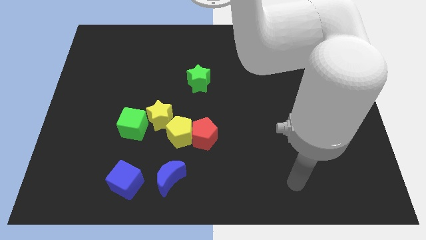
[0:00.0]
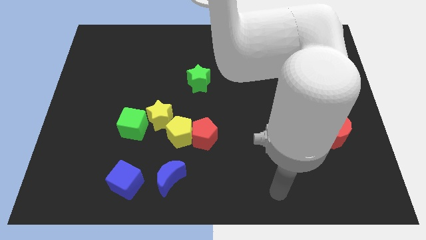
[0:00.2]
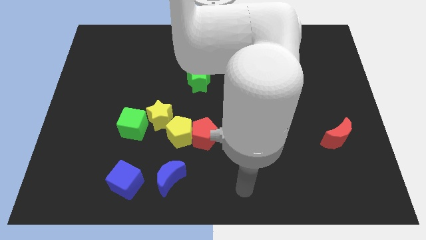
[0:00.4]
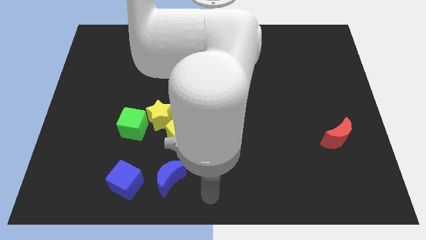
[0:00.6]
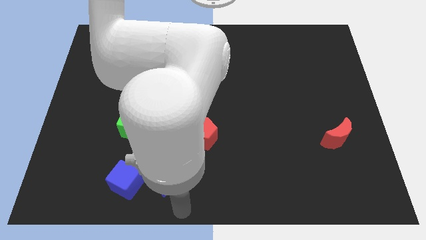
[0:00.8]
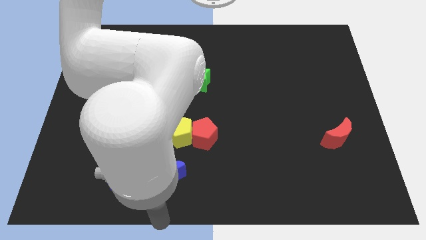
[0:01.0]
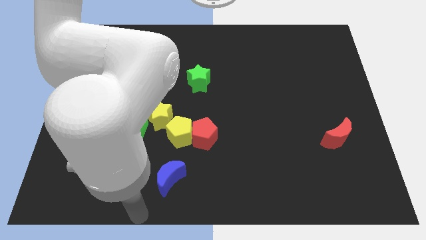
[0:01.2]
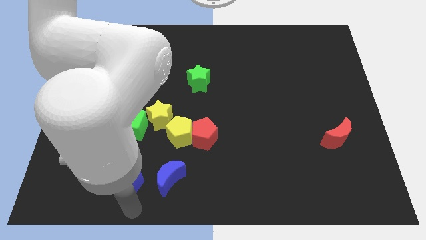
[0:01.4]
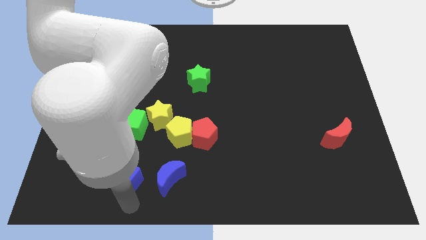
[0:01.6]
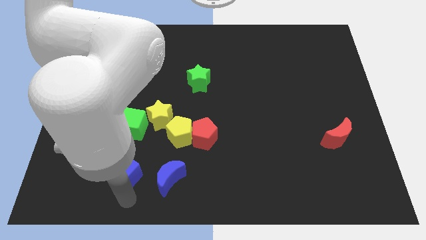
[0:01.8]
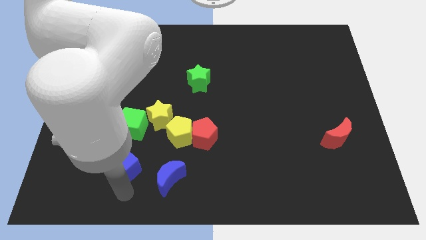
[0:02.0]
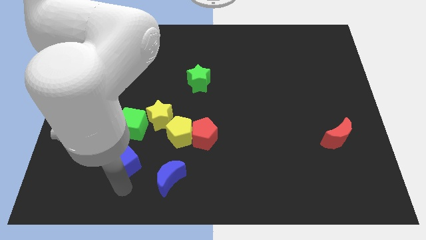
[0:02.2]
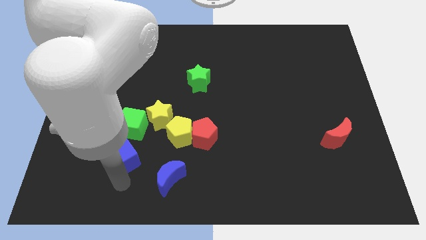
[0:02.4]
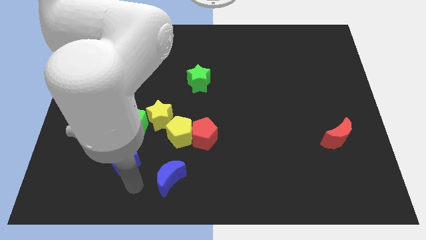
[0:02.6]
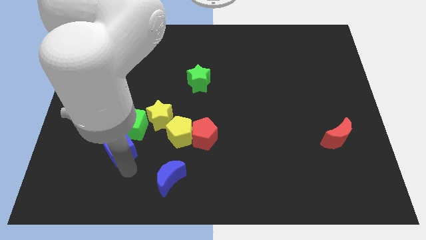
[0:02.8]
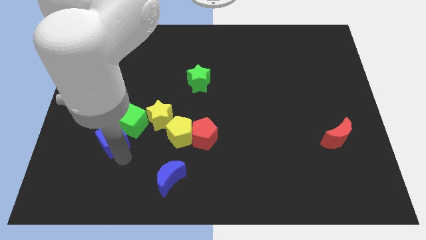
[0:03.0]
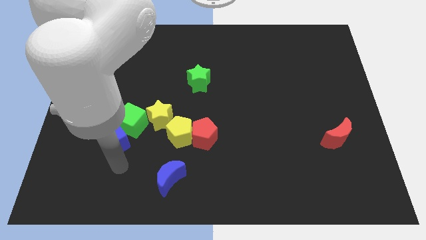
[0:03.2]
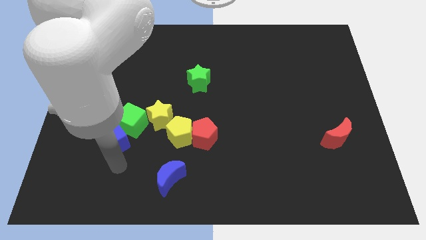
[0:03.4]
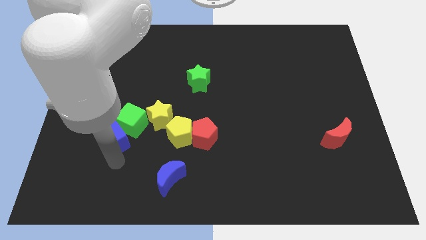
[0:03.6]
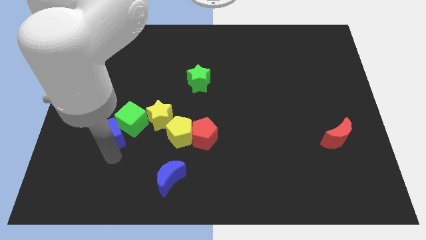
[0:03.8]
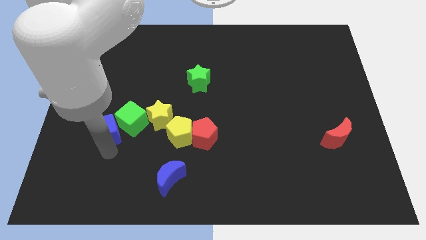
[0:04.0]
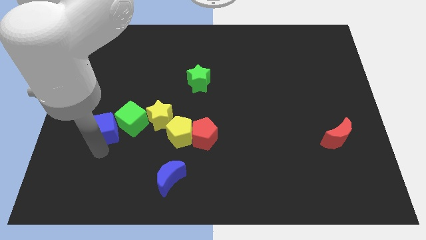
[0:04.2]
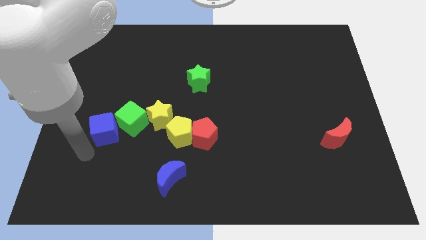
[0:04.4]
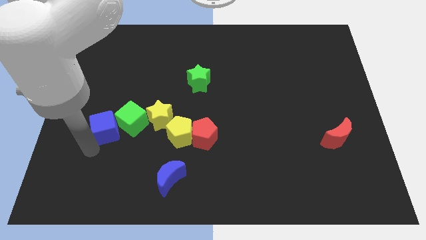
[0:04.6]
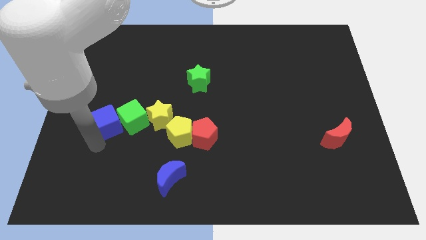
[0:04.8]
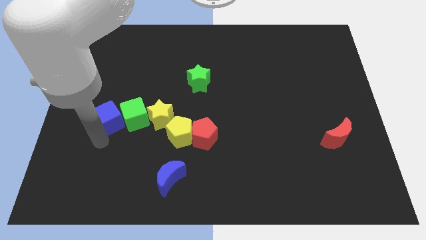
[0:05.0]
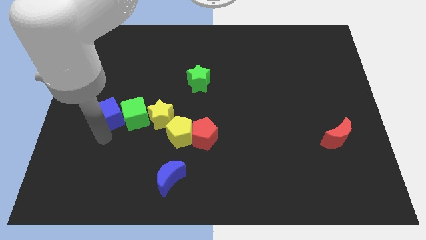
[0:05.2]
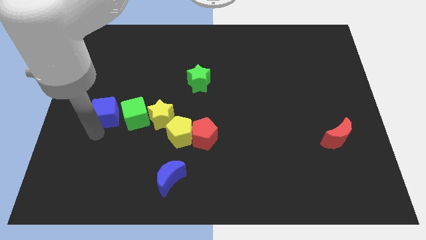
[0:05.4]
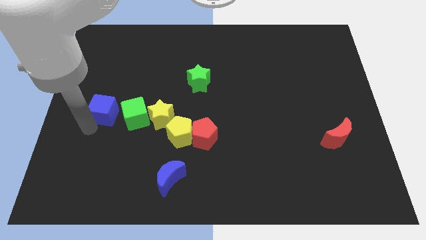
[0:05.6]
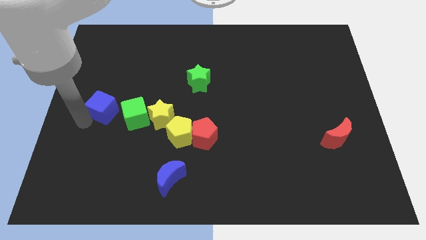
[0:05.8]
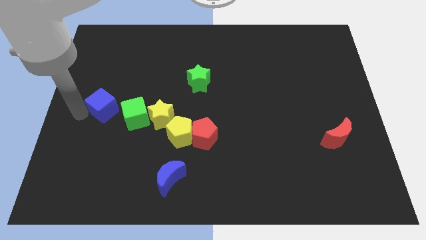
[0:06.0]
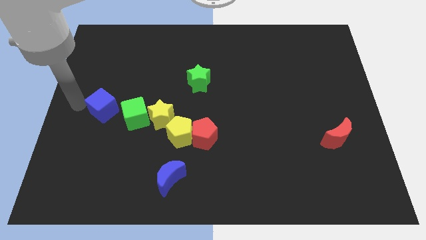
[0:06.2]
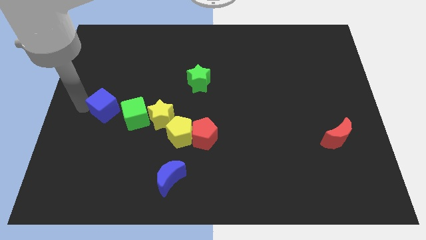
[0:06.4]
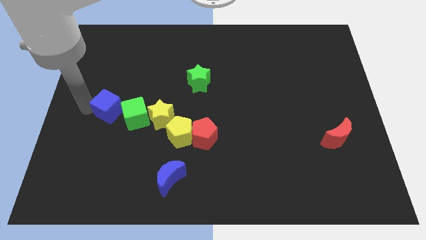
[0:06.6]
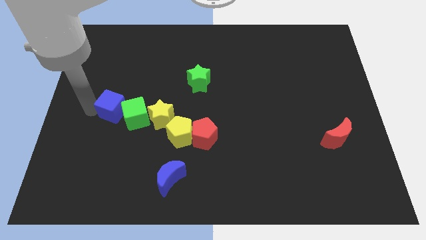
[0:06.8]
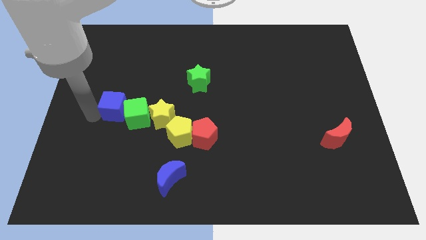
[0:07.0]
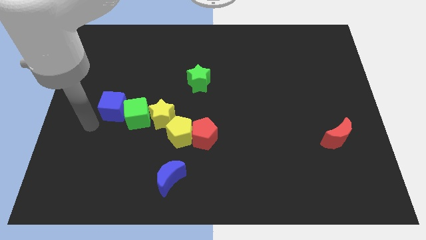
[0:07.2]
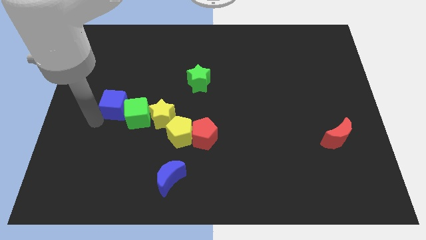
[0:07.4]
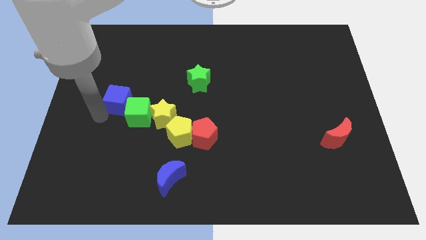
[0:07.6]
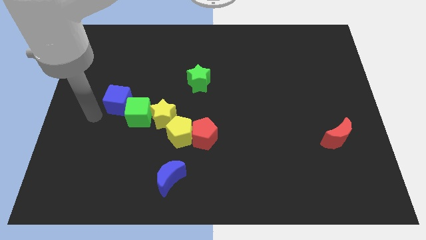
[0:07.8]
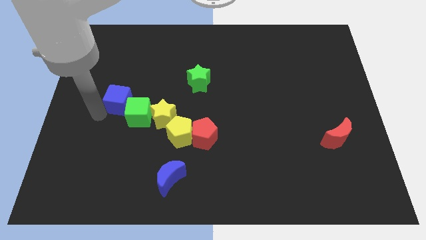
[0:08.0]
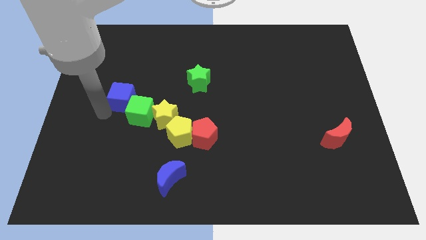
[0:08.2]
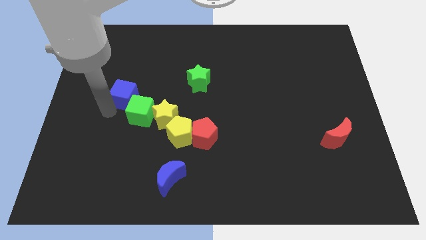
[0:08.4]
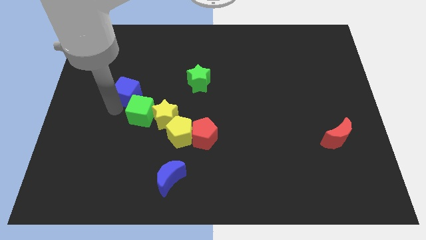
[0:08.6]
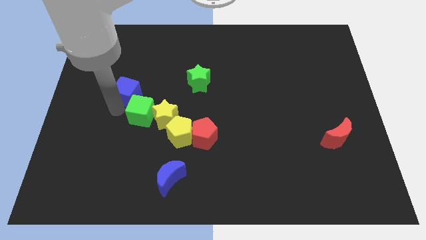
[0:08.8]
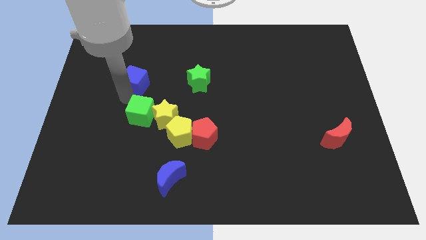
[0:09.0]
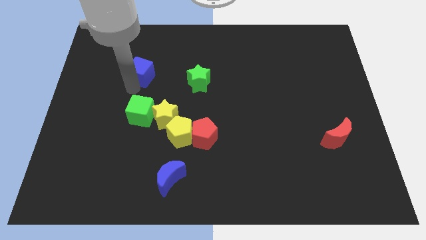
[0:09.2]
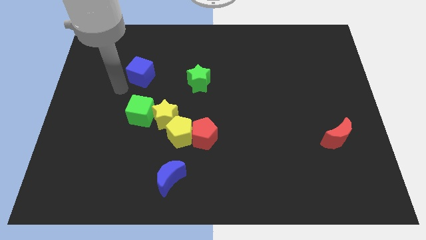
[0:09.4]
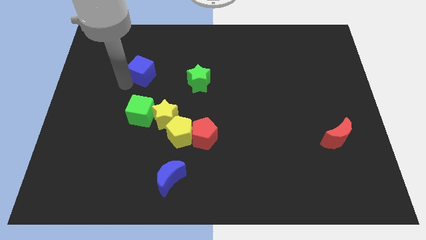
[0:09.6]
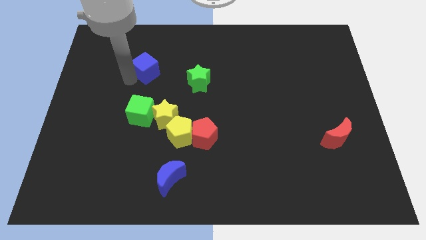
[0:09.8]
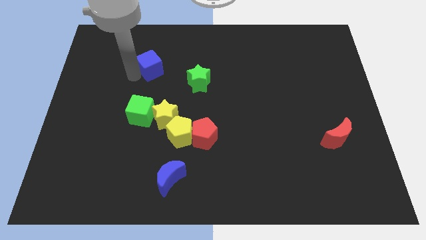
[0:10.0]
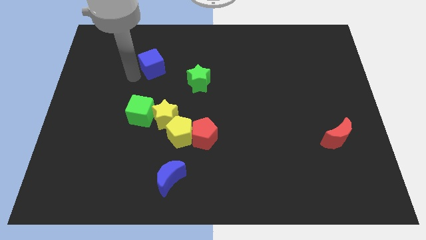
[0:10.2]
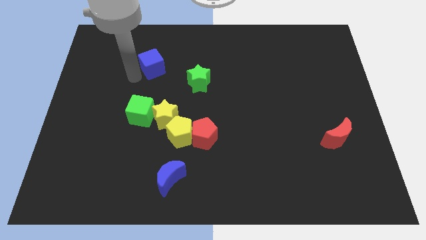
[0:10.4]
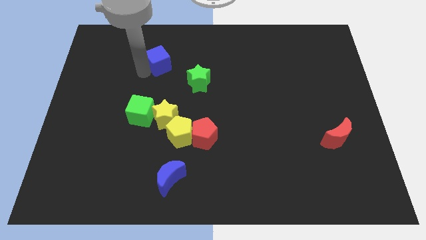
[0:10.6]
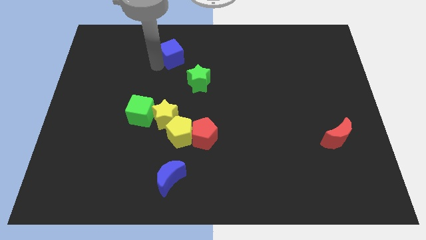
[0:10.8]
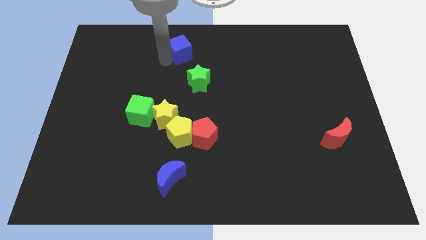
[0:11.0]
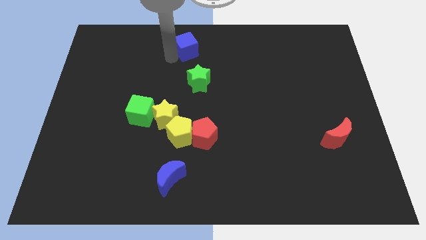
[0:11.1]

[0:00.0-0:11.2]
move the blue cube to the towards your base

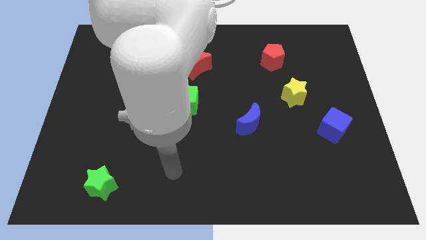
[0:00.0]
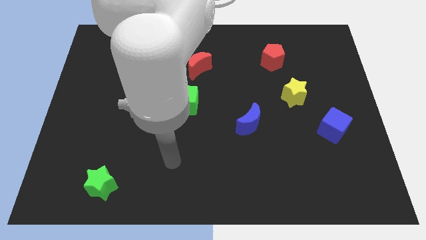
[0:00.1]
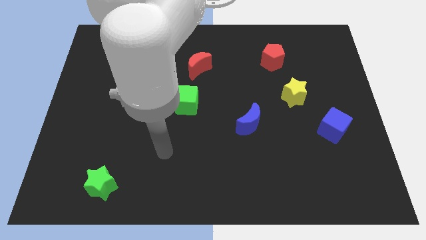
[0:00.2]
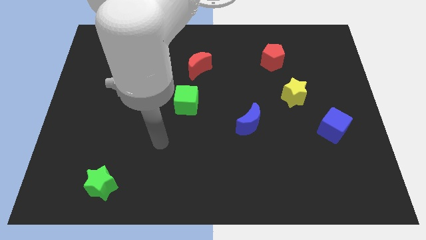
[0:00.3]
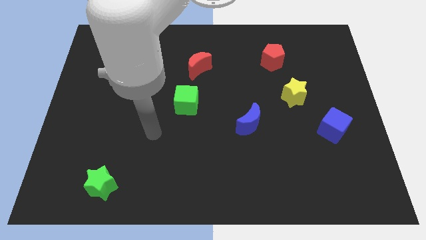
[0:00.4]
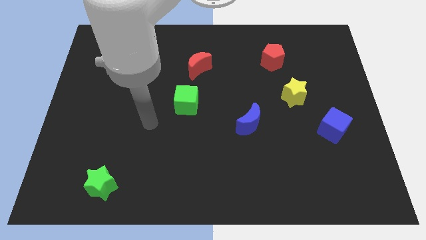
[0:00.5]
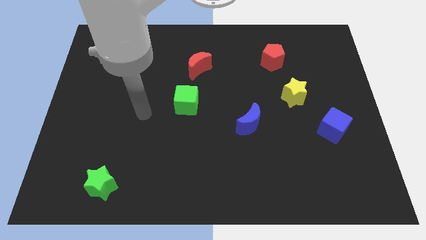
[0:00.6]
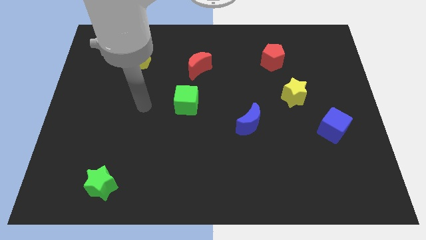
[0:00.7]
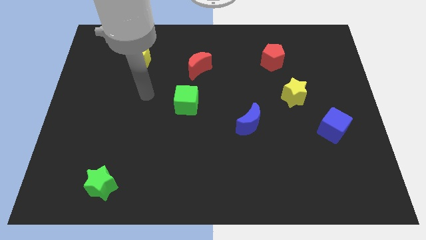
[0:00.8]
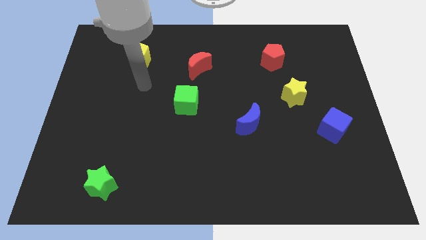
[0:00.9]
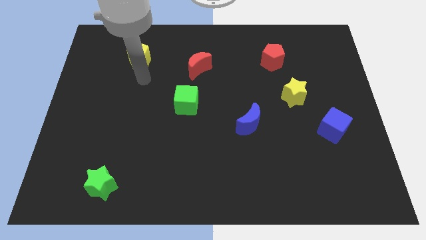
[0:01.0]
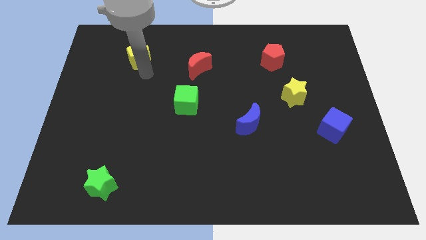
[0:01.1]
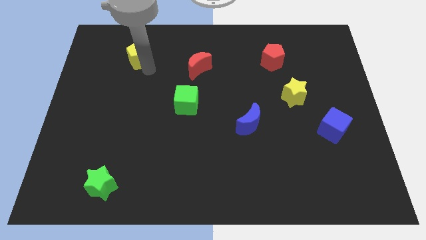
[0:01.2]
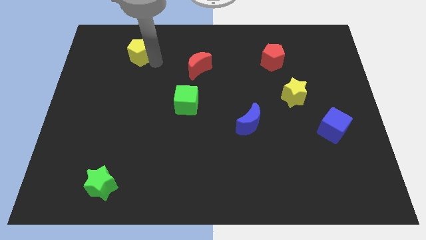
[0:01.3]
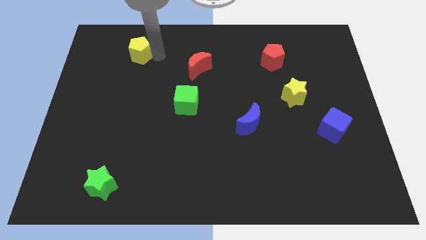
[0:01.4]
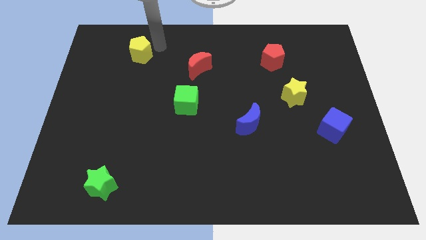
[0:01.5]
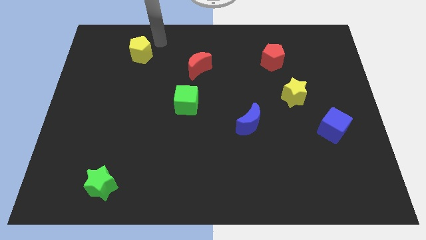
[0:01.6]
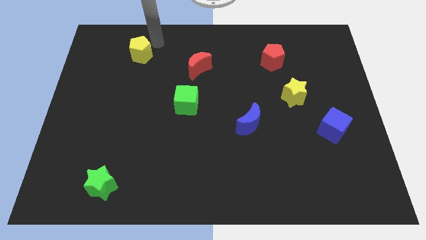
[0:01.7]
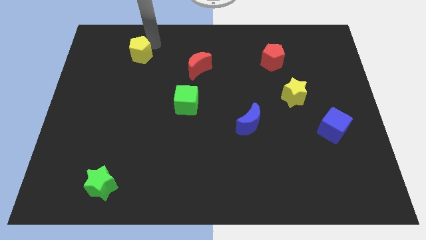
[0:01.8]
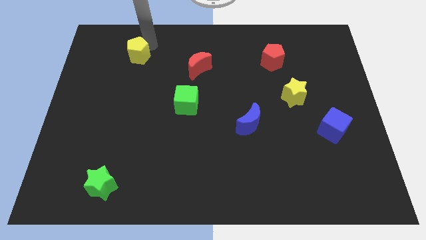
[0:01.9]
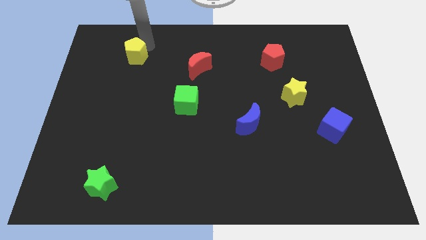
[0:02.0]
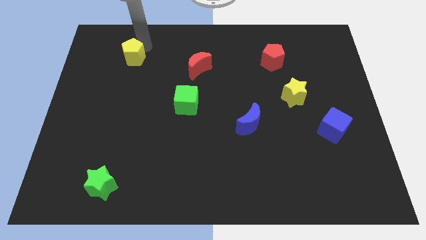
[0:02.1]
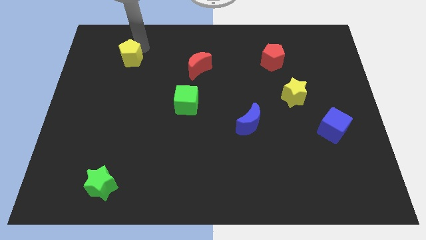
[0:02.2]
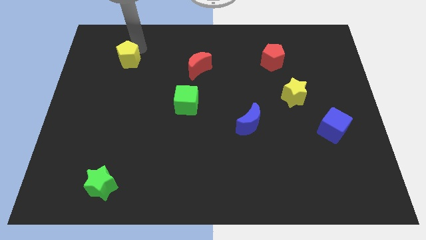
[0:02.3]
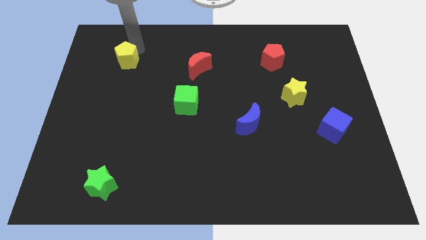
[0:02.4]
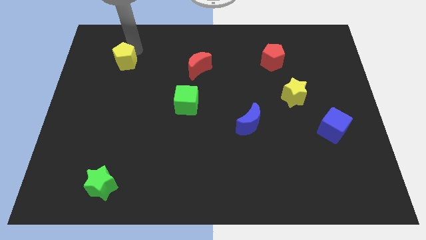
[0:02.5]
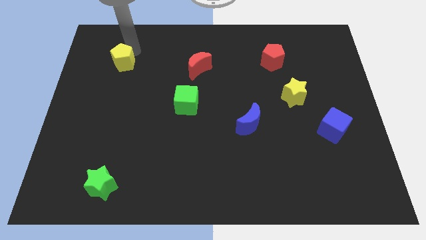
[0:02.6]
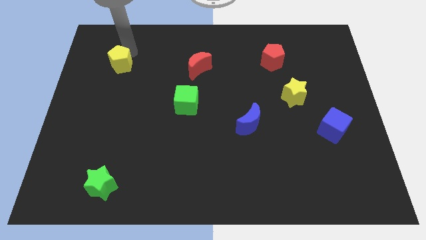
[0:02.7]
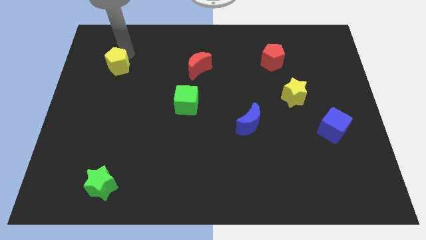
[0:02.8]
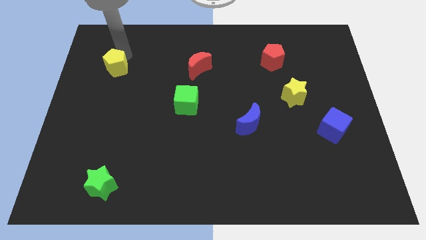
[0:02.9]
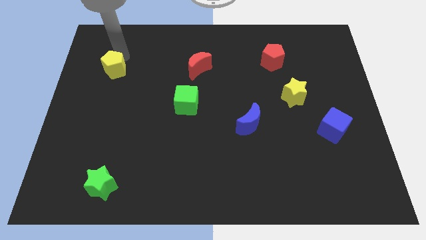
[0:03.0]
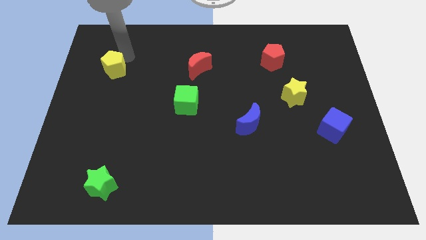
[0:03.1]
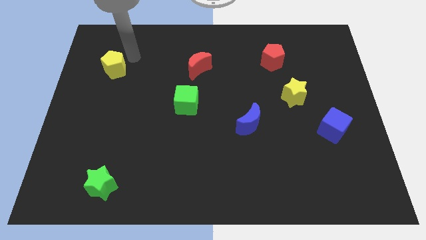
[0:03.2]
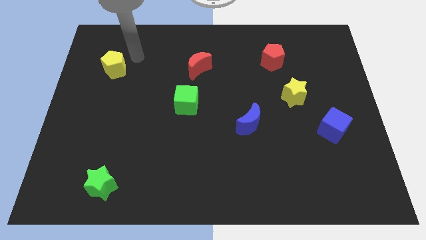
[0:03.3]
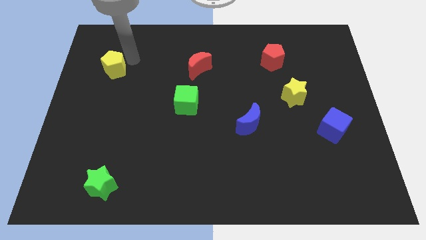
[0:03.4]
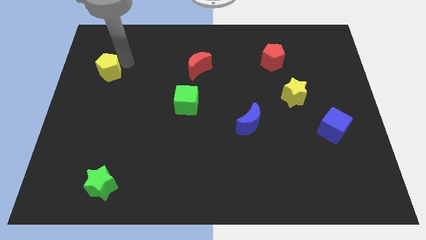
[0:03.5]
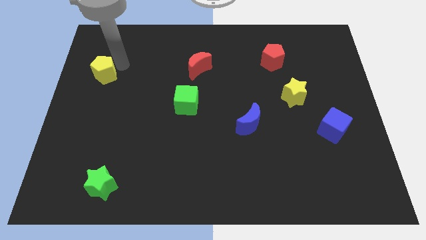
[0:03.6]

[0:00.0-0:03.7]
slide the yellow pentagon to the left side
